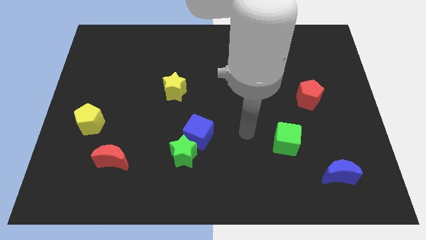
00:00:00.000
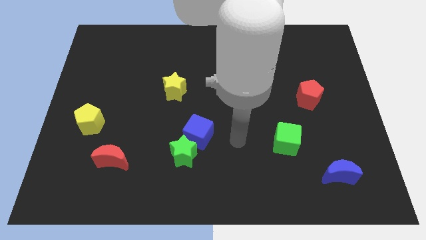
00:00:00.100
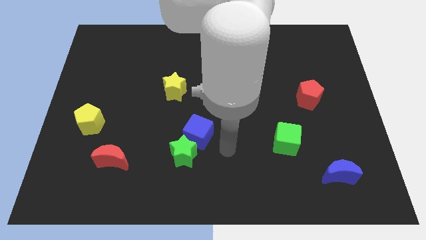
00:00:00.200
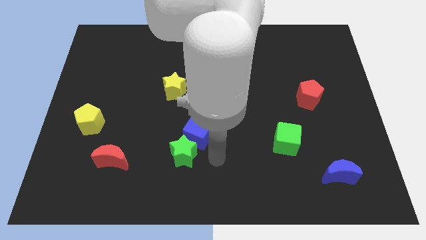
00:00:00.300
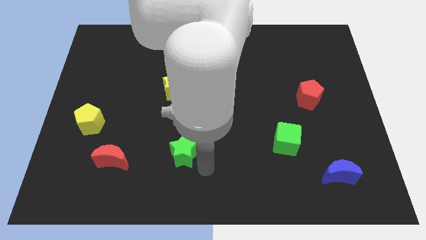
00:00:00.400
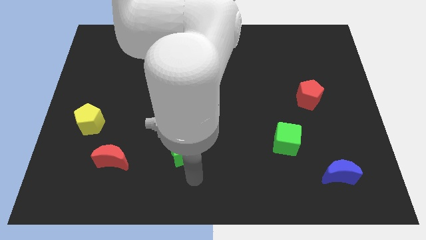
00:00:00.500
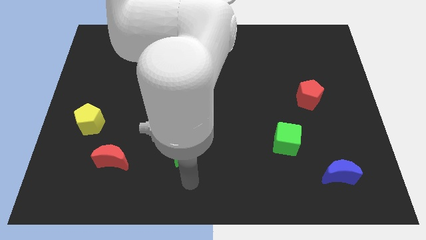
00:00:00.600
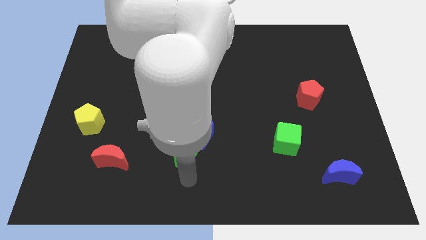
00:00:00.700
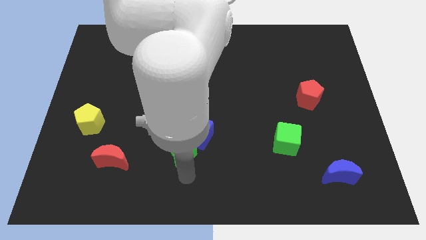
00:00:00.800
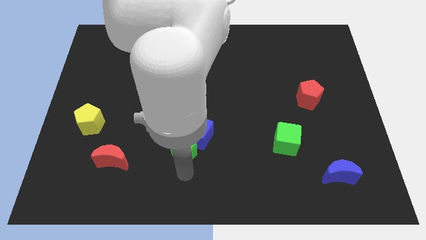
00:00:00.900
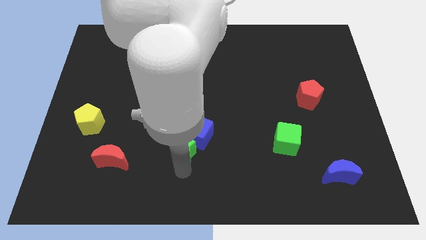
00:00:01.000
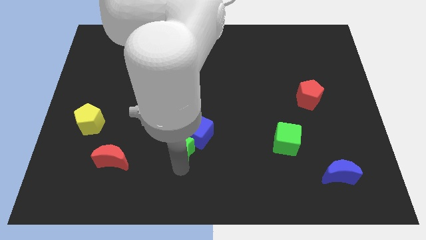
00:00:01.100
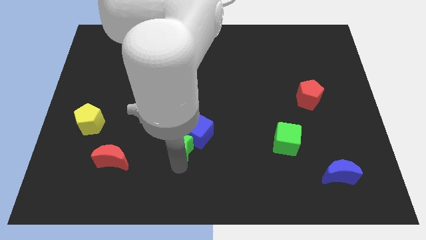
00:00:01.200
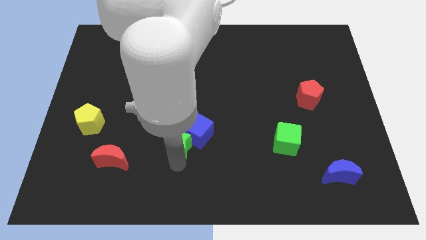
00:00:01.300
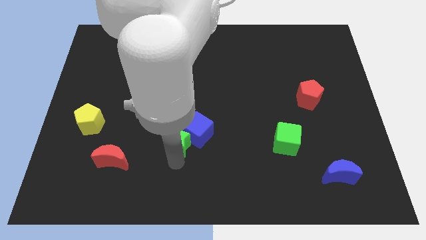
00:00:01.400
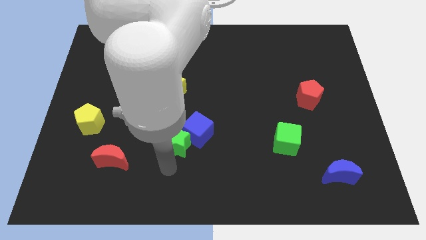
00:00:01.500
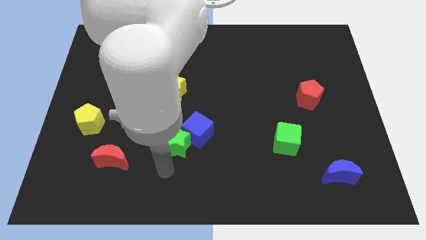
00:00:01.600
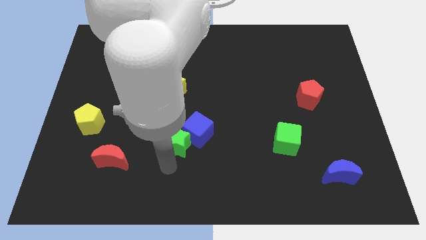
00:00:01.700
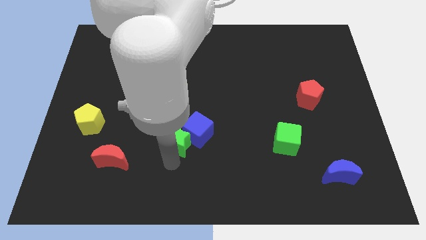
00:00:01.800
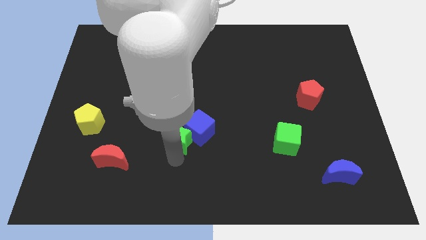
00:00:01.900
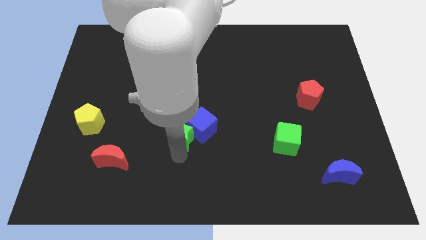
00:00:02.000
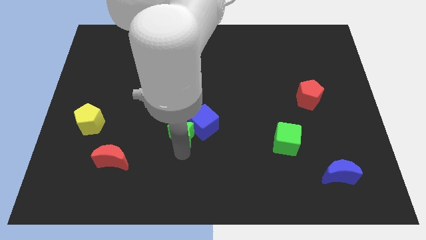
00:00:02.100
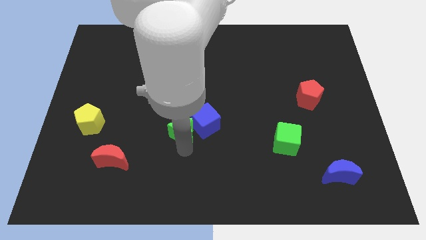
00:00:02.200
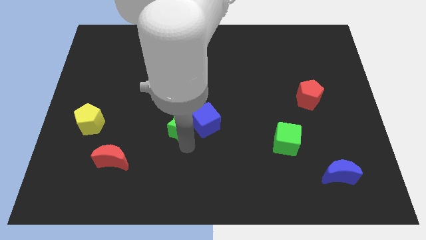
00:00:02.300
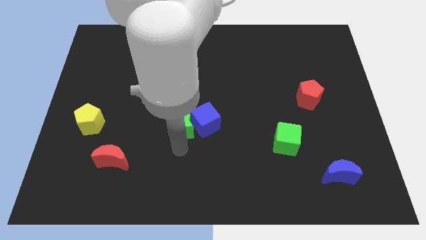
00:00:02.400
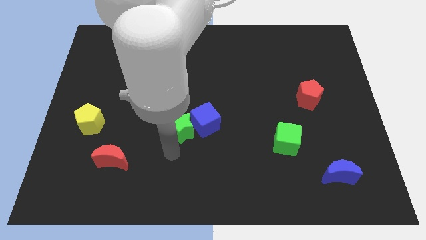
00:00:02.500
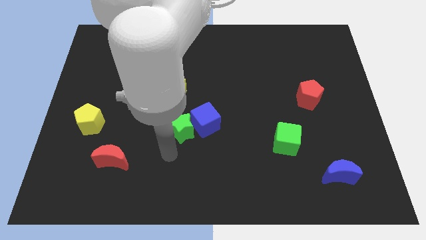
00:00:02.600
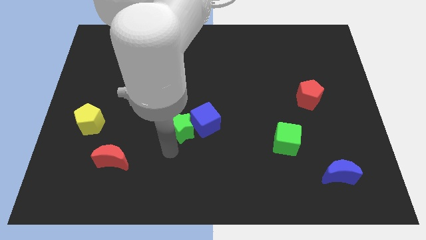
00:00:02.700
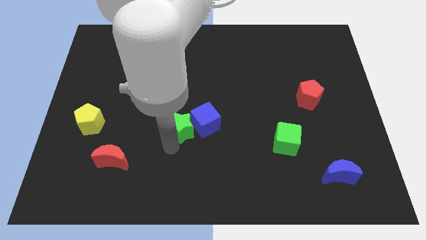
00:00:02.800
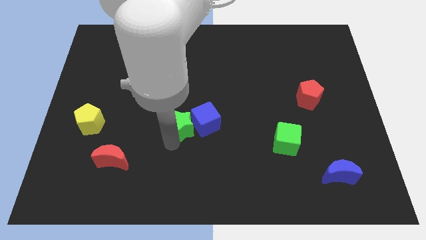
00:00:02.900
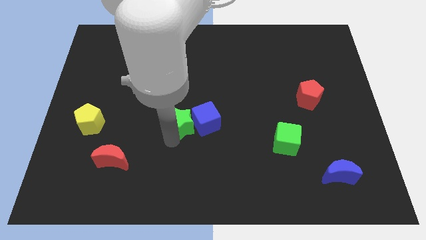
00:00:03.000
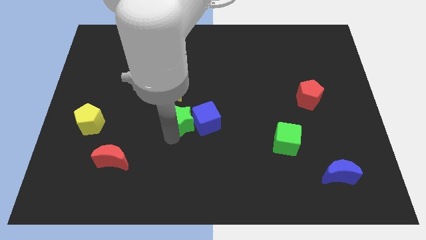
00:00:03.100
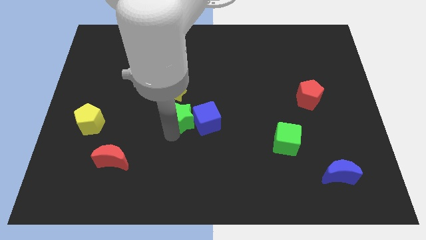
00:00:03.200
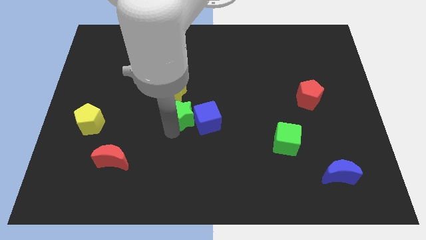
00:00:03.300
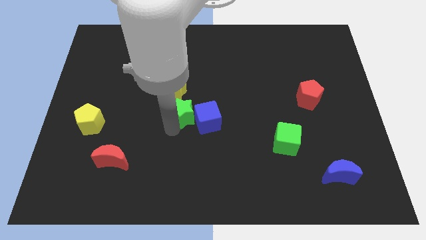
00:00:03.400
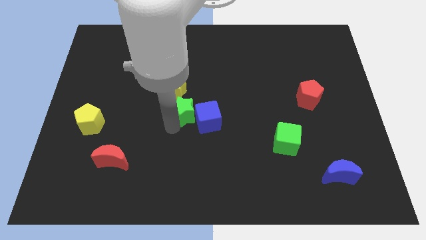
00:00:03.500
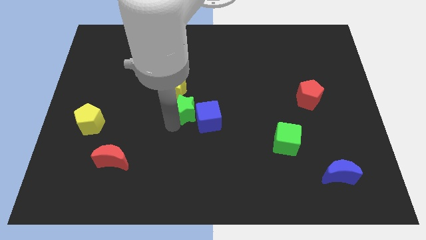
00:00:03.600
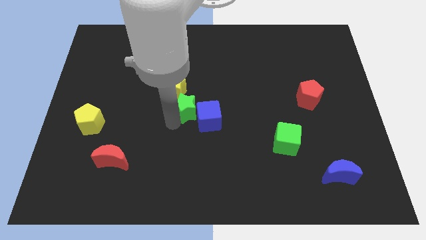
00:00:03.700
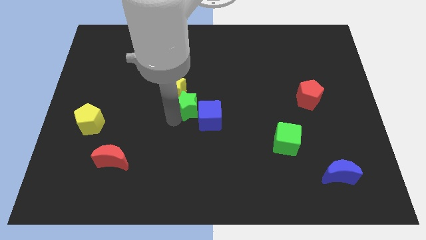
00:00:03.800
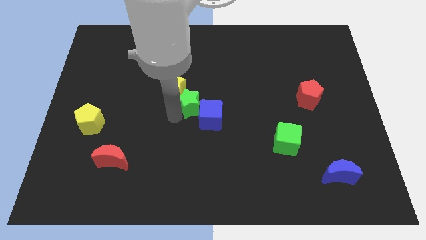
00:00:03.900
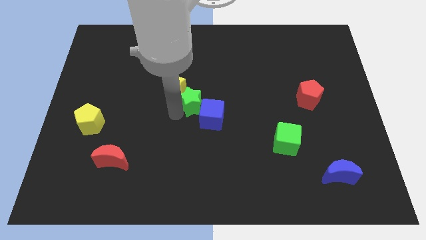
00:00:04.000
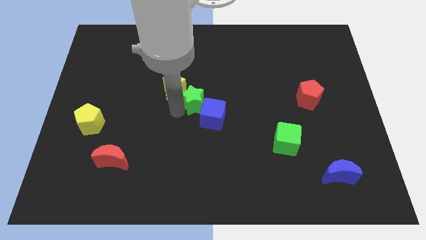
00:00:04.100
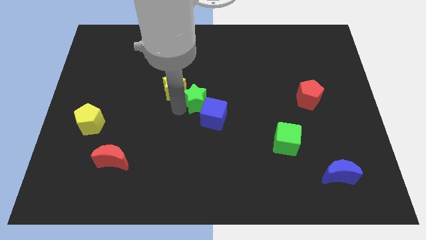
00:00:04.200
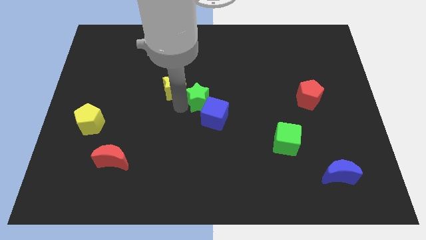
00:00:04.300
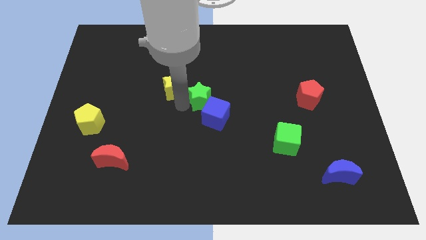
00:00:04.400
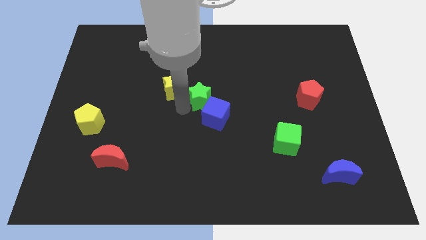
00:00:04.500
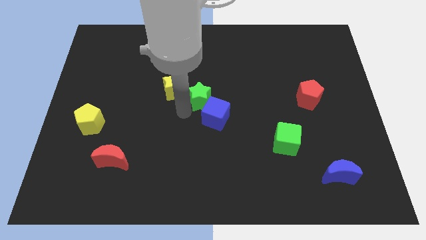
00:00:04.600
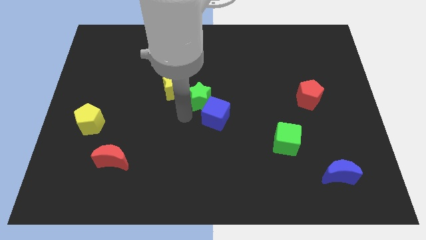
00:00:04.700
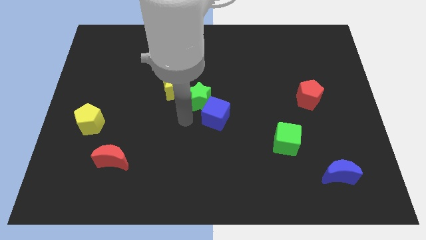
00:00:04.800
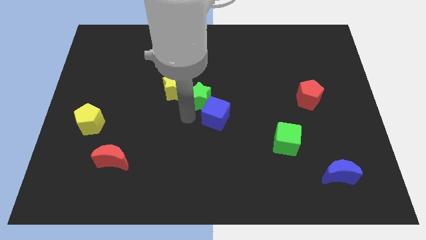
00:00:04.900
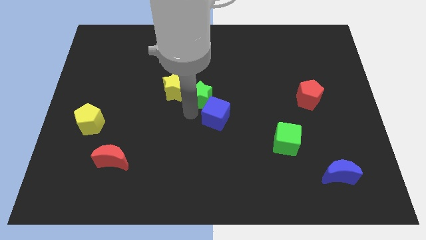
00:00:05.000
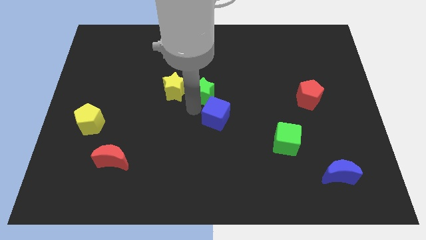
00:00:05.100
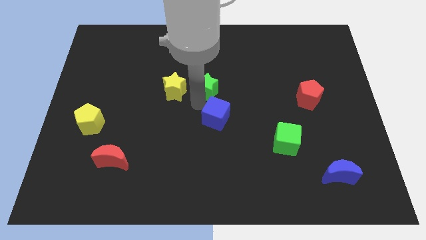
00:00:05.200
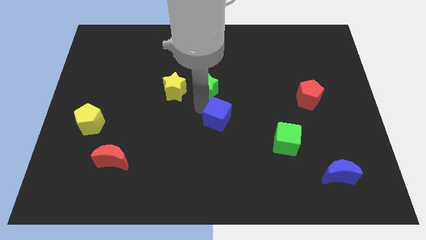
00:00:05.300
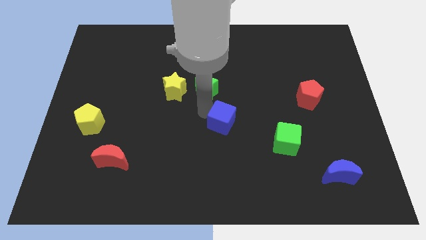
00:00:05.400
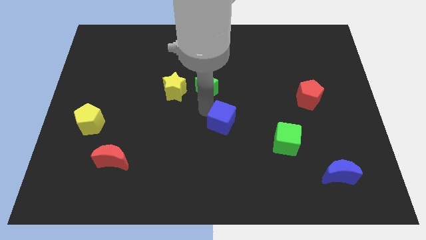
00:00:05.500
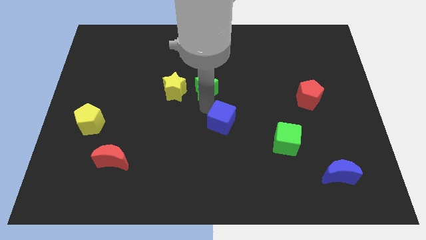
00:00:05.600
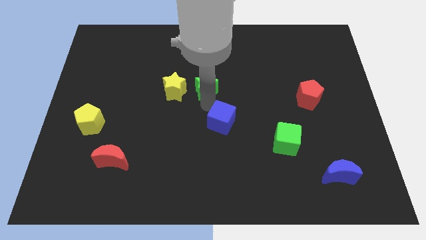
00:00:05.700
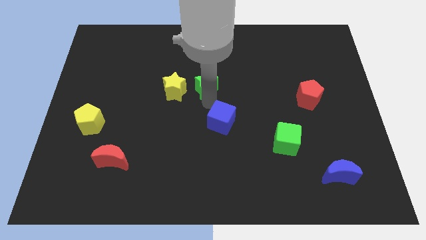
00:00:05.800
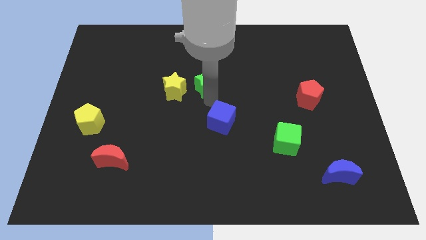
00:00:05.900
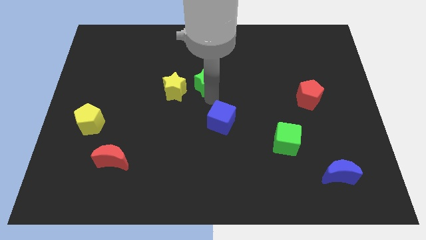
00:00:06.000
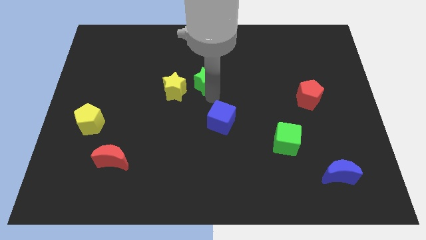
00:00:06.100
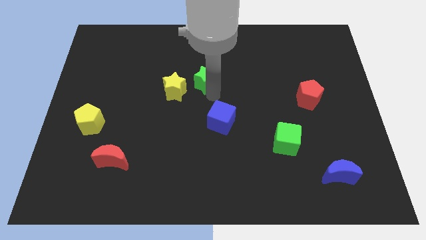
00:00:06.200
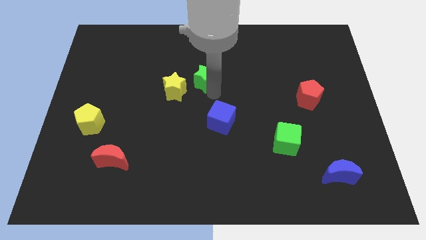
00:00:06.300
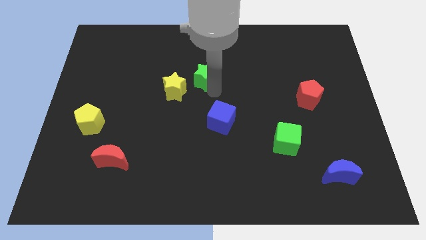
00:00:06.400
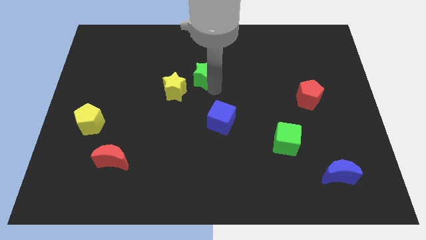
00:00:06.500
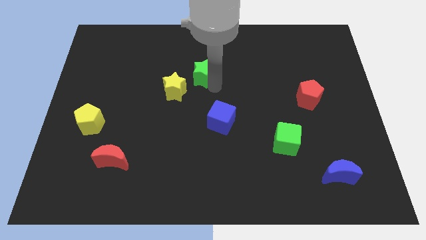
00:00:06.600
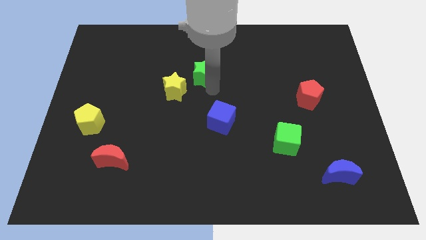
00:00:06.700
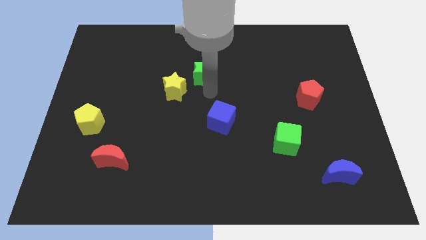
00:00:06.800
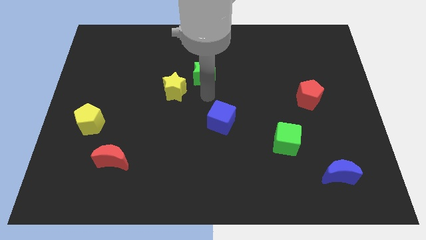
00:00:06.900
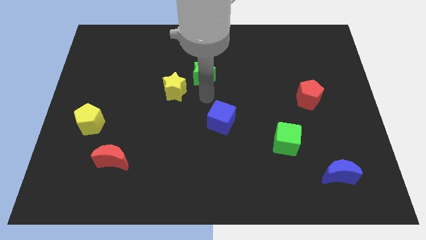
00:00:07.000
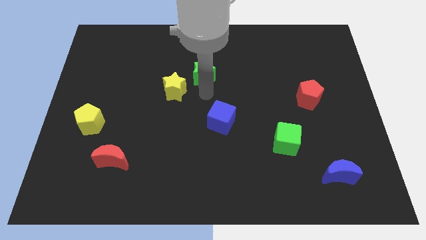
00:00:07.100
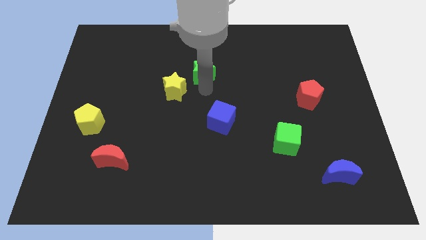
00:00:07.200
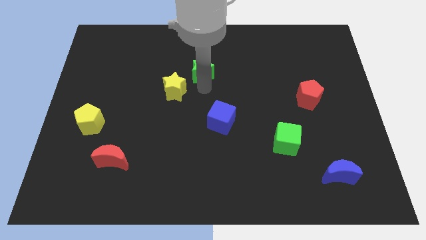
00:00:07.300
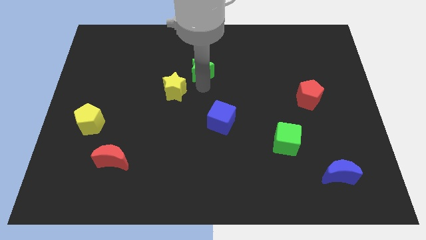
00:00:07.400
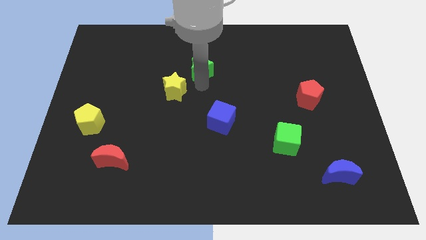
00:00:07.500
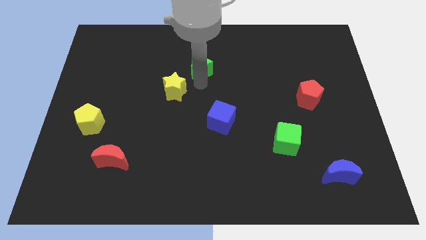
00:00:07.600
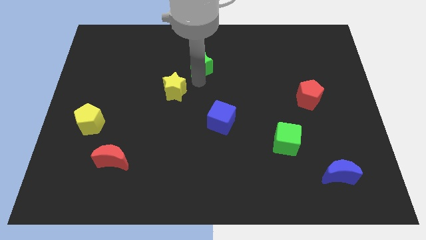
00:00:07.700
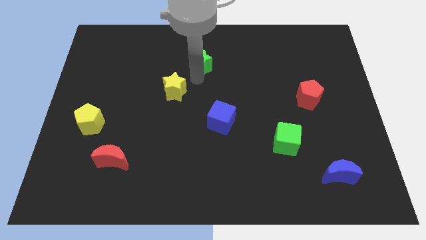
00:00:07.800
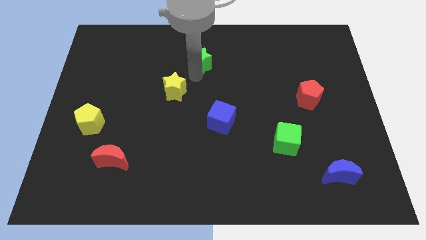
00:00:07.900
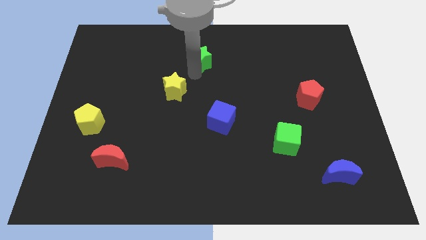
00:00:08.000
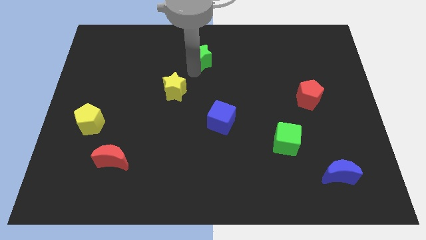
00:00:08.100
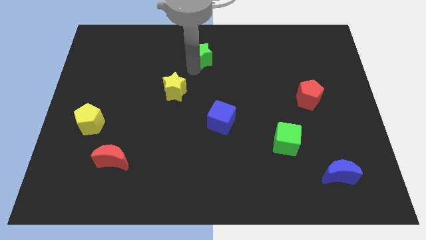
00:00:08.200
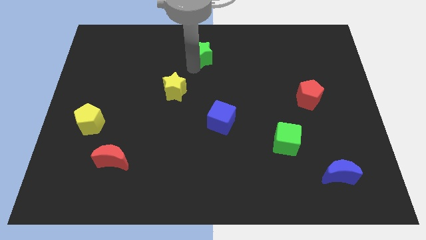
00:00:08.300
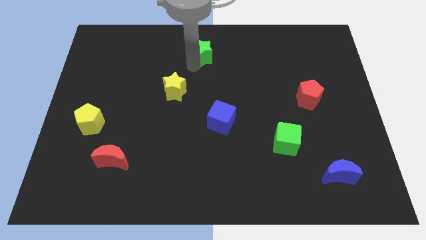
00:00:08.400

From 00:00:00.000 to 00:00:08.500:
put the green star to the top side
